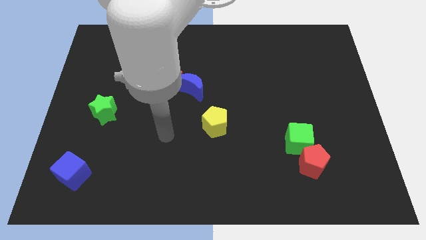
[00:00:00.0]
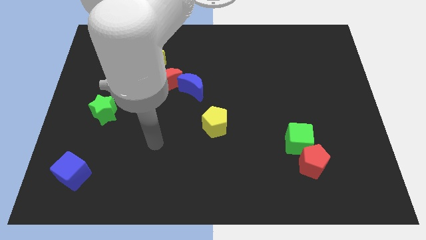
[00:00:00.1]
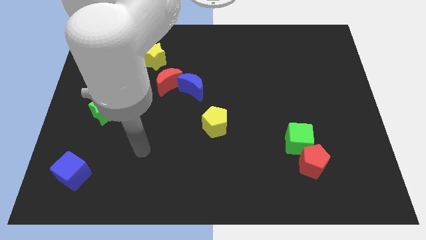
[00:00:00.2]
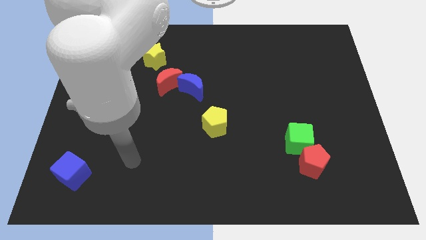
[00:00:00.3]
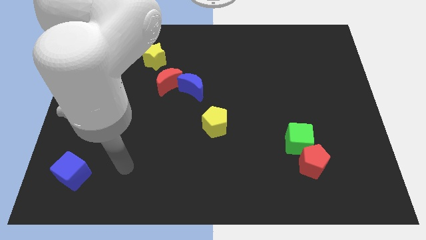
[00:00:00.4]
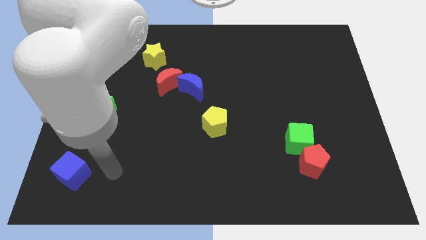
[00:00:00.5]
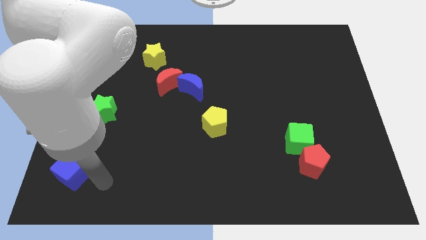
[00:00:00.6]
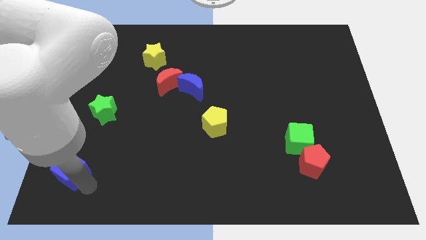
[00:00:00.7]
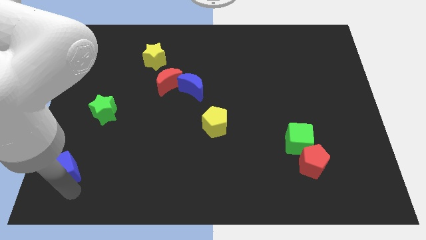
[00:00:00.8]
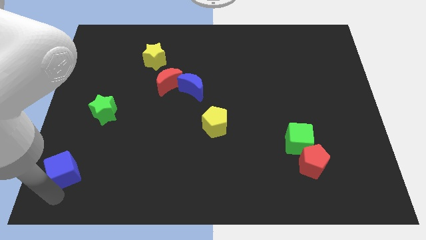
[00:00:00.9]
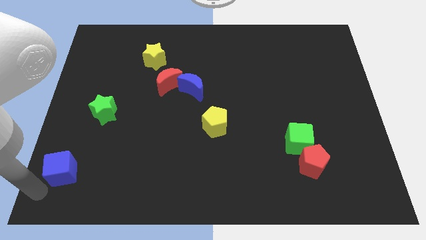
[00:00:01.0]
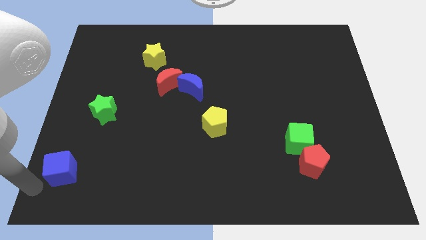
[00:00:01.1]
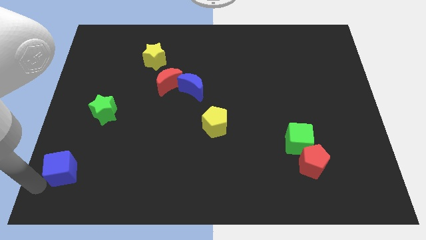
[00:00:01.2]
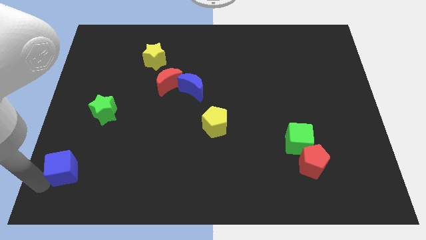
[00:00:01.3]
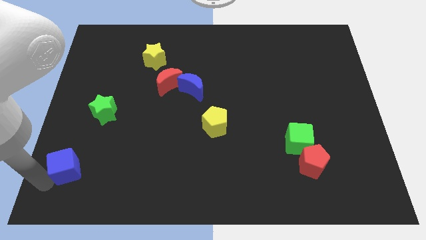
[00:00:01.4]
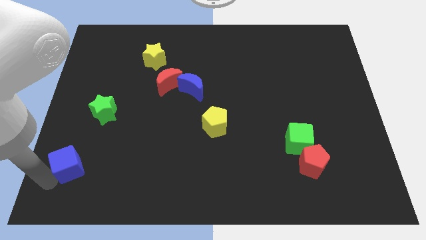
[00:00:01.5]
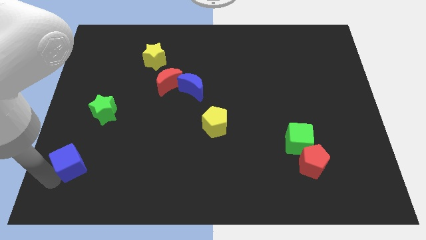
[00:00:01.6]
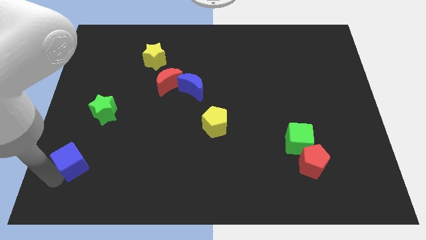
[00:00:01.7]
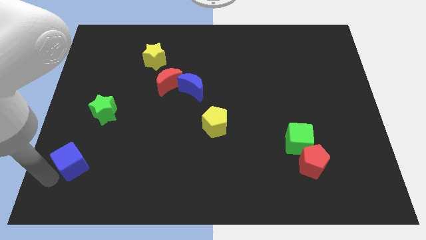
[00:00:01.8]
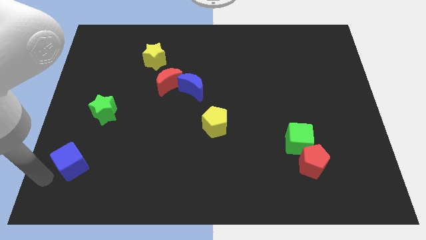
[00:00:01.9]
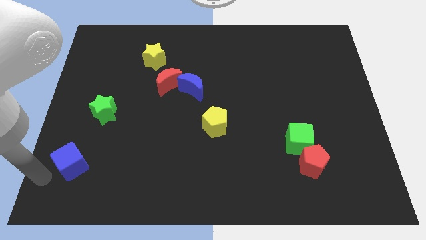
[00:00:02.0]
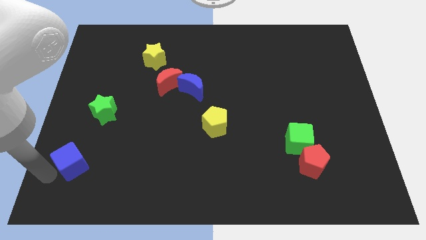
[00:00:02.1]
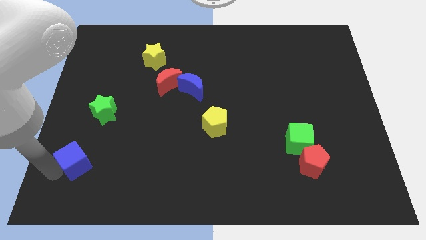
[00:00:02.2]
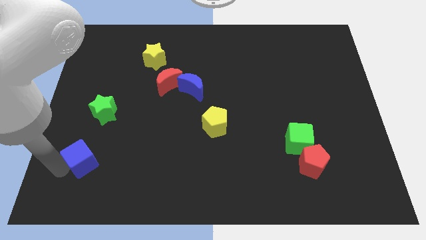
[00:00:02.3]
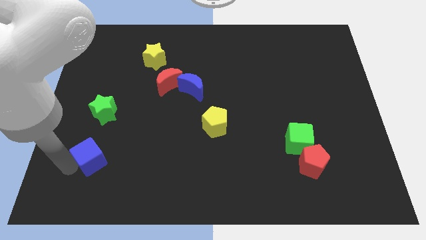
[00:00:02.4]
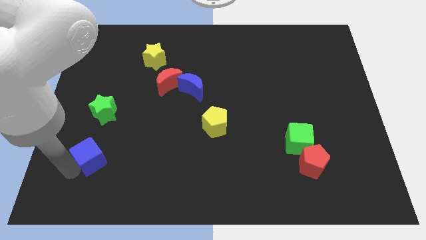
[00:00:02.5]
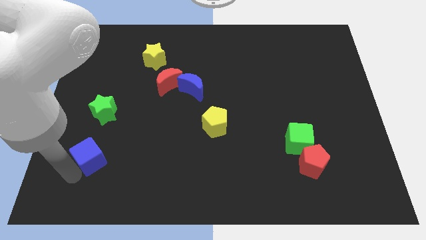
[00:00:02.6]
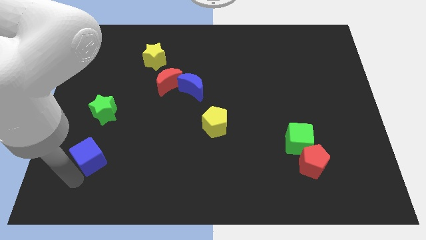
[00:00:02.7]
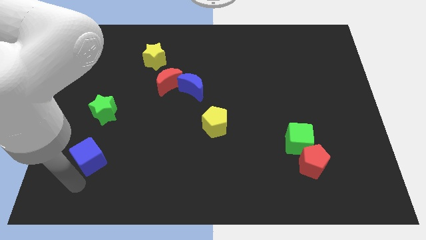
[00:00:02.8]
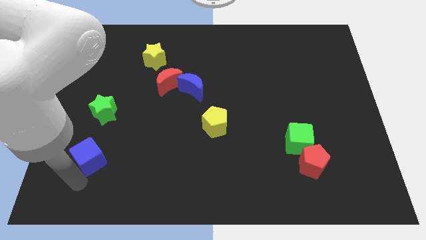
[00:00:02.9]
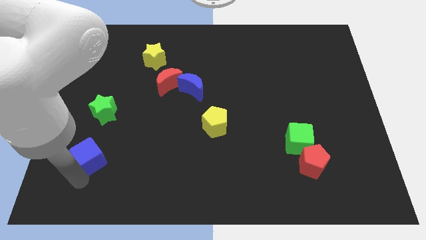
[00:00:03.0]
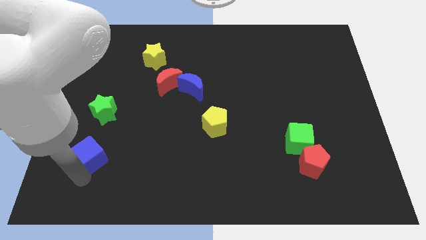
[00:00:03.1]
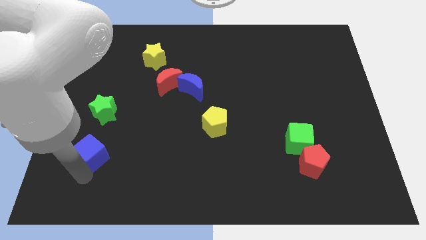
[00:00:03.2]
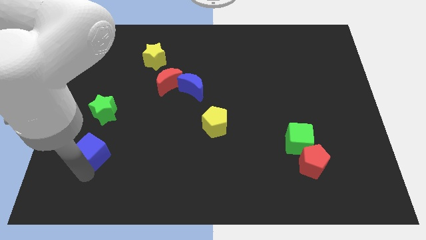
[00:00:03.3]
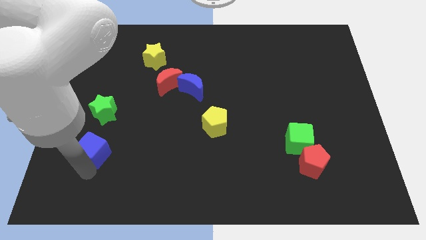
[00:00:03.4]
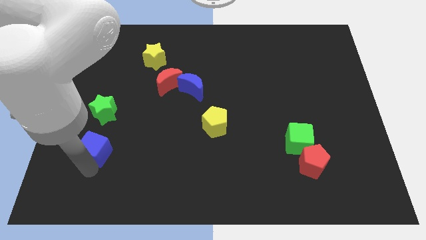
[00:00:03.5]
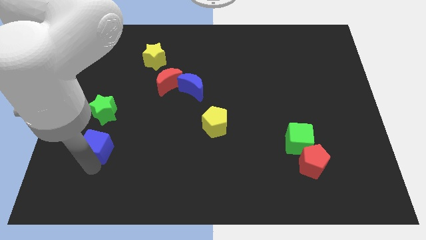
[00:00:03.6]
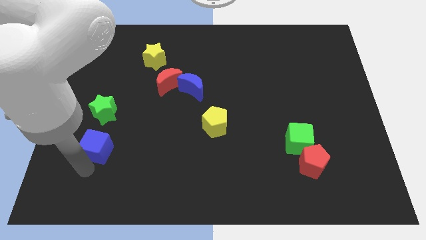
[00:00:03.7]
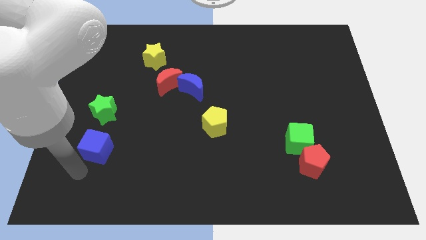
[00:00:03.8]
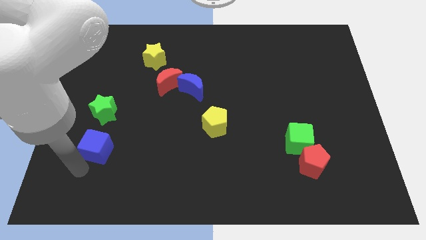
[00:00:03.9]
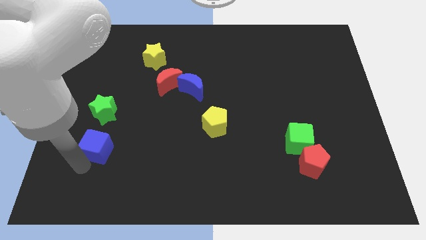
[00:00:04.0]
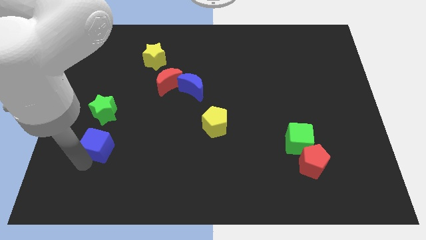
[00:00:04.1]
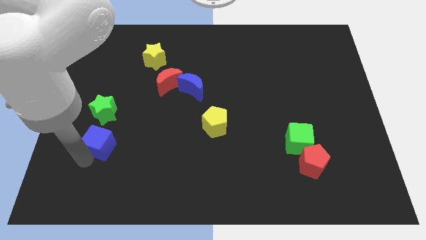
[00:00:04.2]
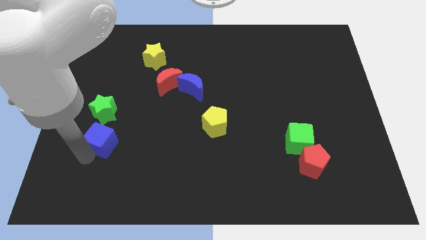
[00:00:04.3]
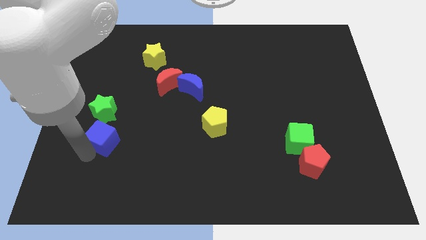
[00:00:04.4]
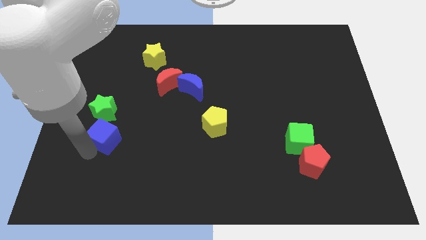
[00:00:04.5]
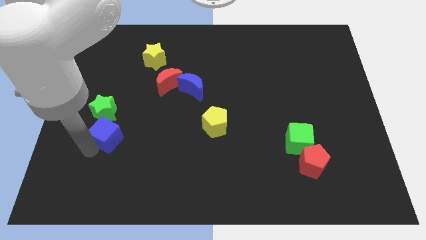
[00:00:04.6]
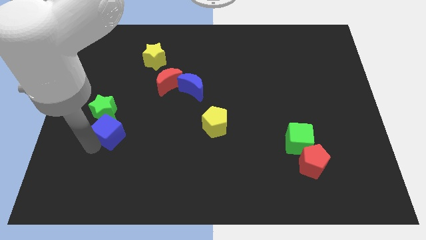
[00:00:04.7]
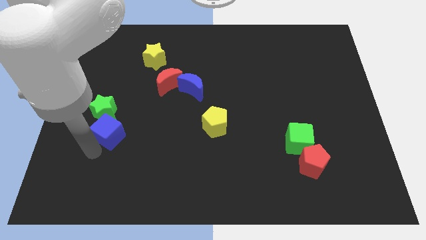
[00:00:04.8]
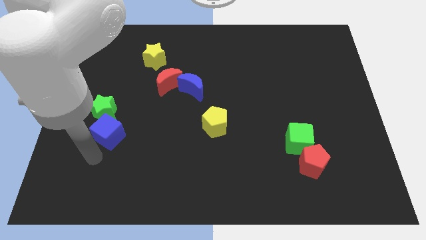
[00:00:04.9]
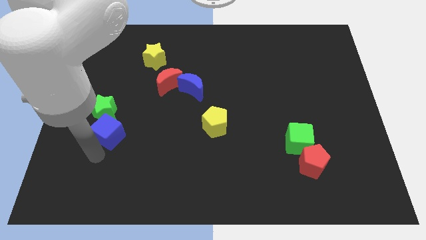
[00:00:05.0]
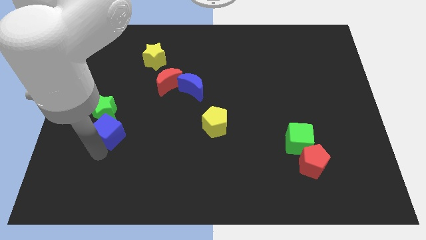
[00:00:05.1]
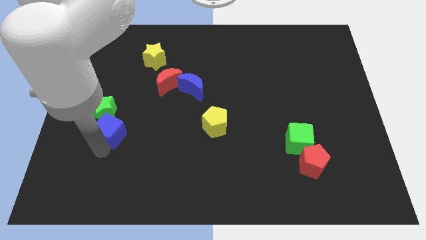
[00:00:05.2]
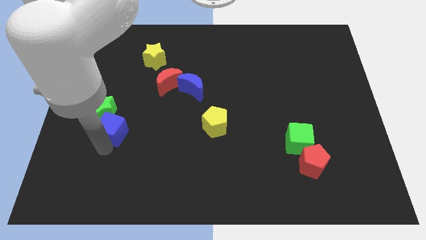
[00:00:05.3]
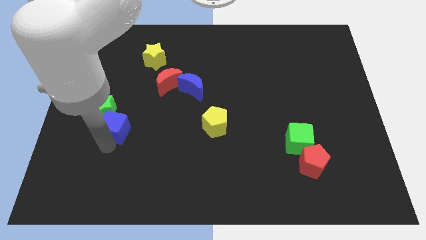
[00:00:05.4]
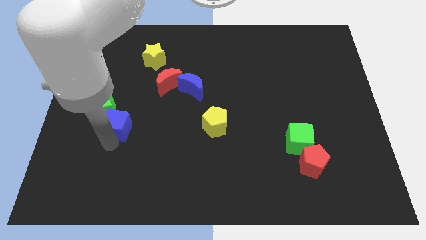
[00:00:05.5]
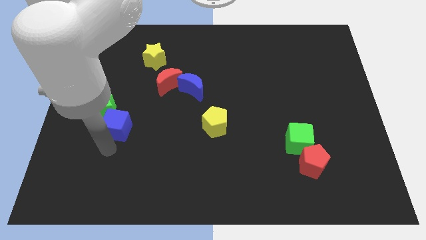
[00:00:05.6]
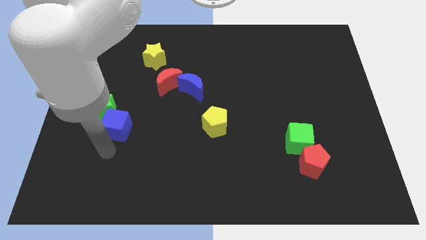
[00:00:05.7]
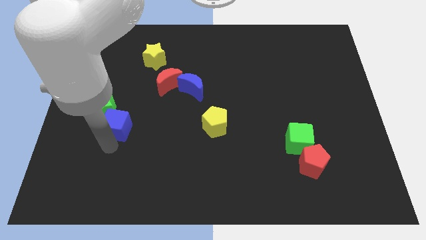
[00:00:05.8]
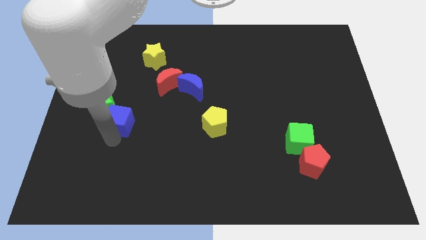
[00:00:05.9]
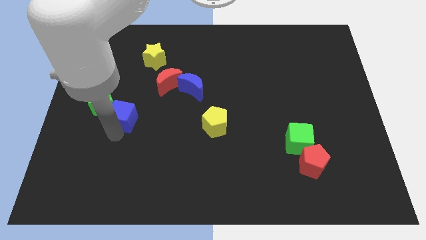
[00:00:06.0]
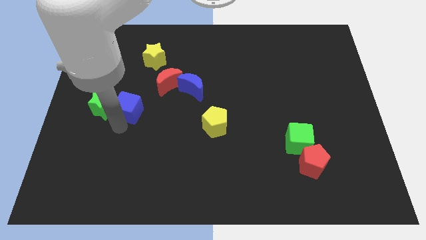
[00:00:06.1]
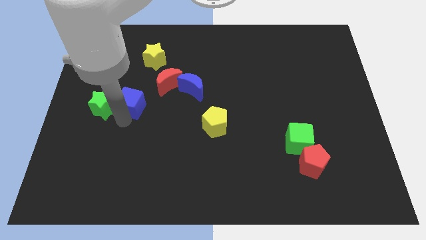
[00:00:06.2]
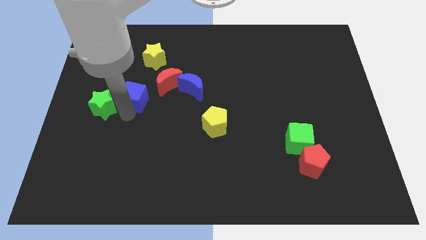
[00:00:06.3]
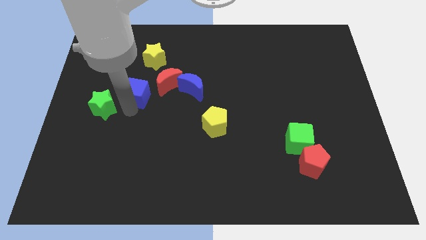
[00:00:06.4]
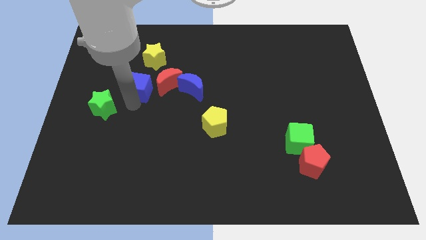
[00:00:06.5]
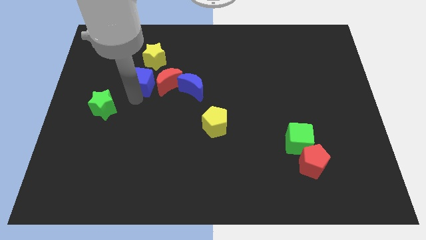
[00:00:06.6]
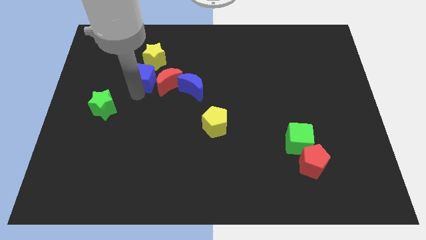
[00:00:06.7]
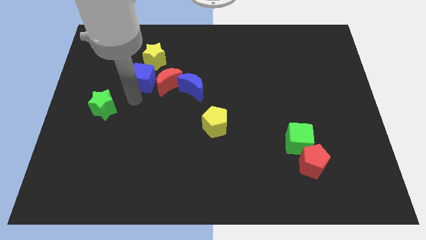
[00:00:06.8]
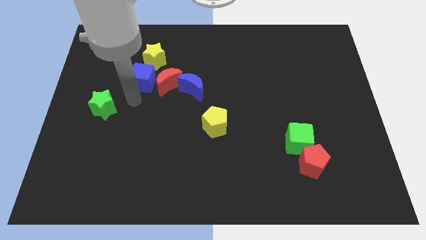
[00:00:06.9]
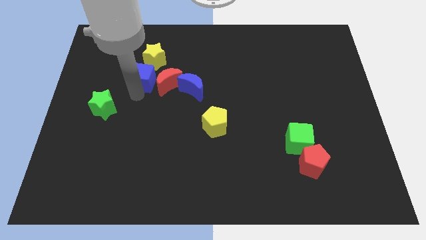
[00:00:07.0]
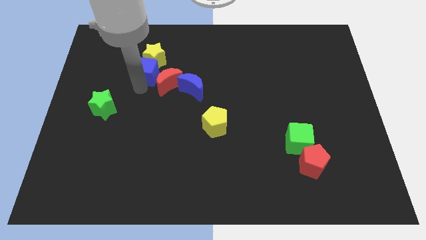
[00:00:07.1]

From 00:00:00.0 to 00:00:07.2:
push the blue cube next to the yellow star

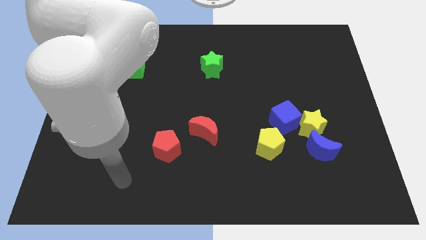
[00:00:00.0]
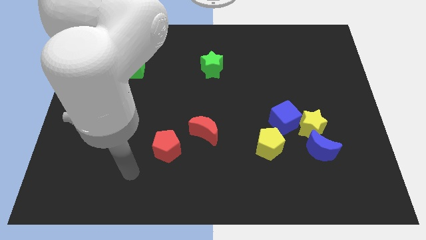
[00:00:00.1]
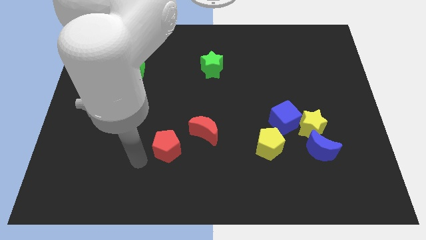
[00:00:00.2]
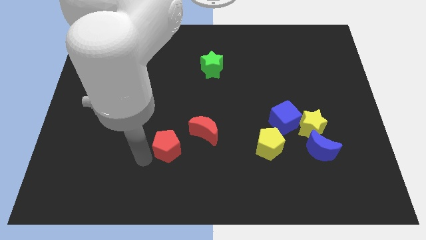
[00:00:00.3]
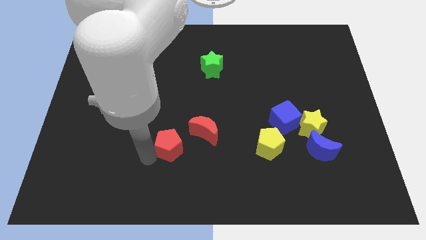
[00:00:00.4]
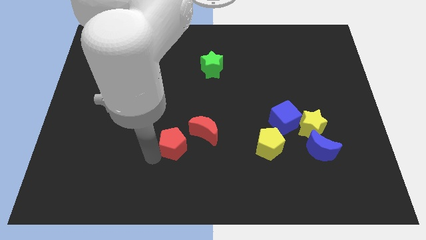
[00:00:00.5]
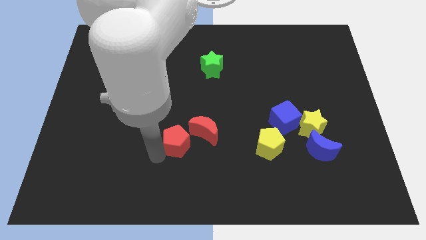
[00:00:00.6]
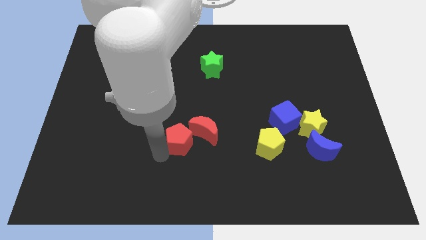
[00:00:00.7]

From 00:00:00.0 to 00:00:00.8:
put the red pentagon next to the red moon
